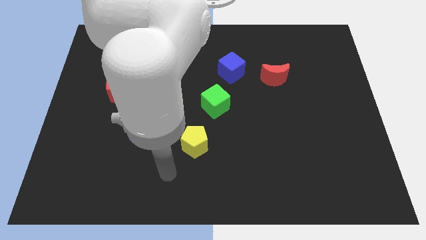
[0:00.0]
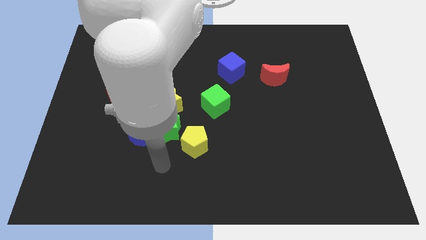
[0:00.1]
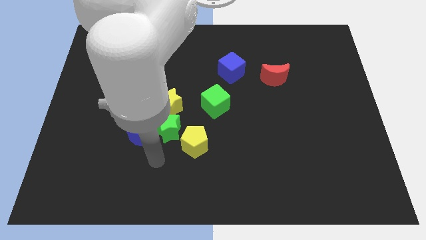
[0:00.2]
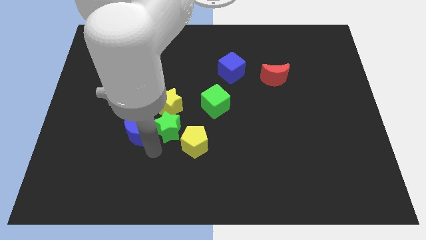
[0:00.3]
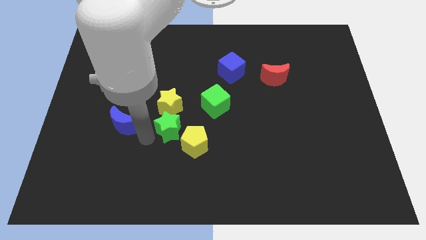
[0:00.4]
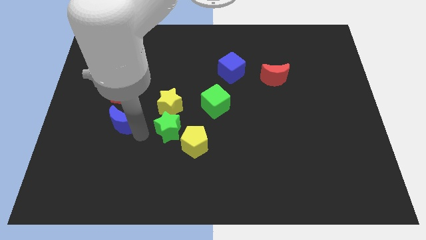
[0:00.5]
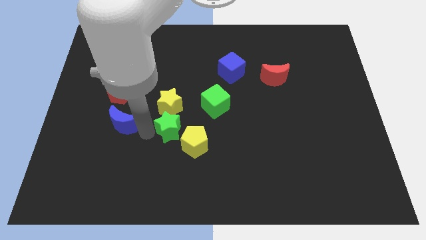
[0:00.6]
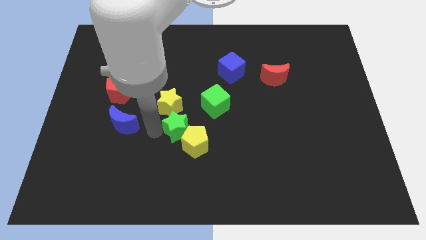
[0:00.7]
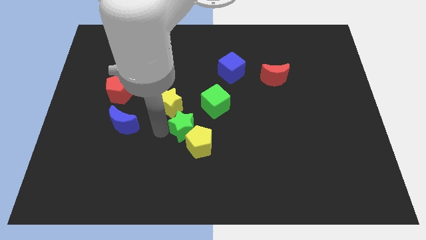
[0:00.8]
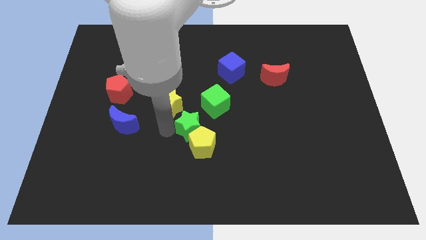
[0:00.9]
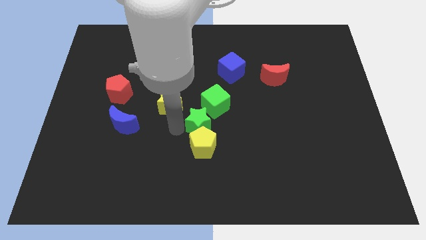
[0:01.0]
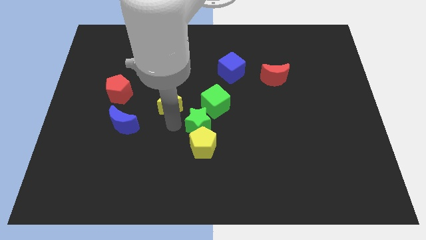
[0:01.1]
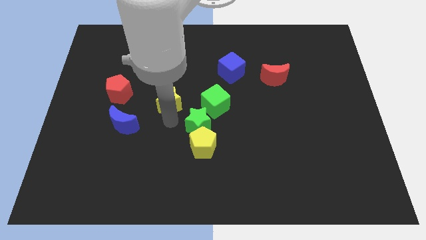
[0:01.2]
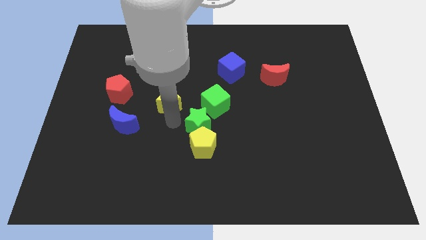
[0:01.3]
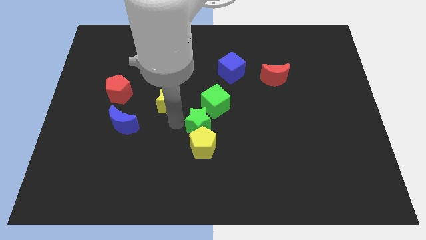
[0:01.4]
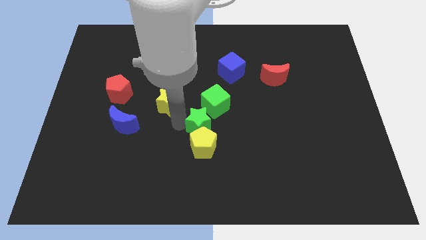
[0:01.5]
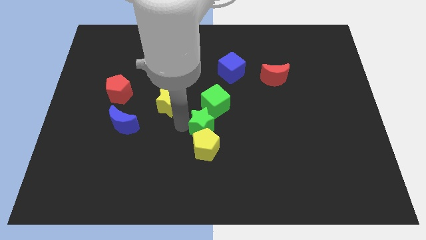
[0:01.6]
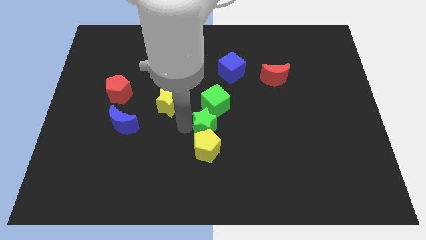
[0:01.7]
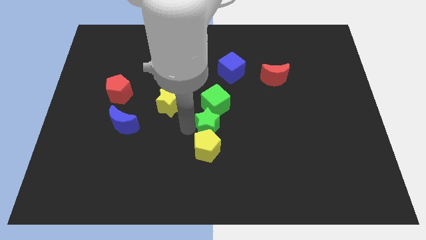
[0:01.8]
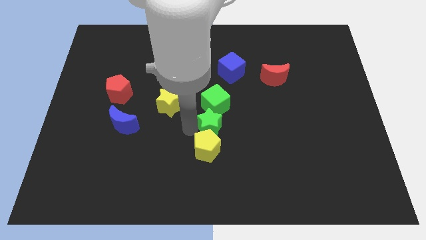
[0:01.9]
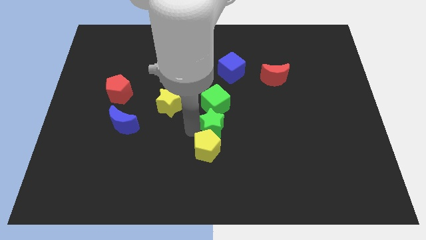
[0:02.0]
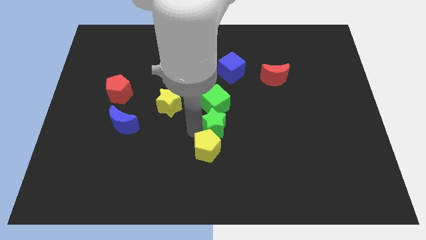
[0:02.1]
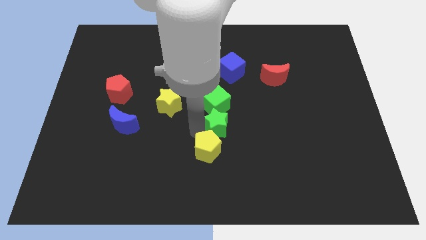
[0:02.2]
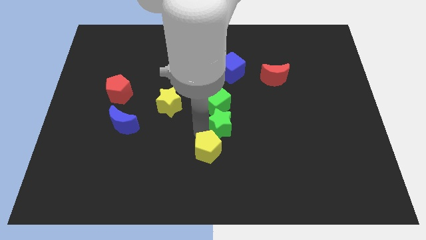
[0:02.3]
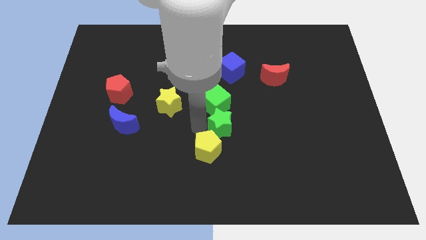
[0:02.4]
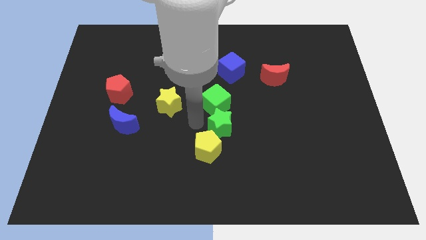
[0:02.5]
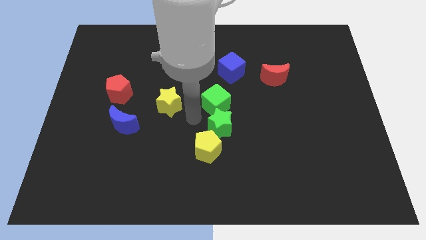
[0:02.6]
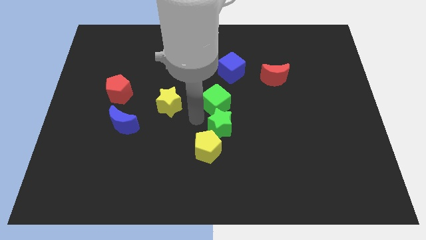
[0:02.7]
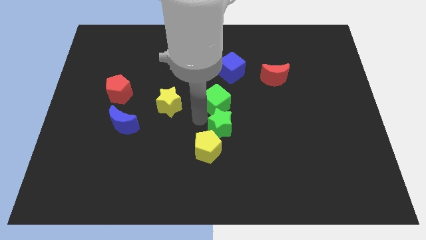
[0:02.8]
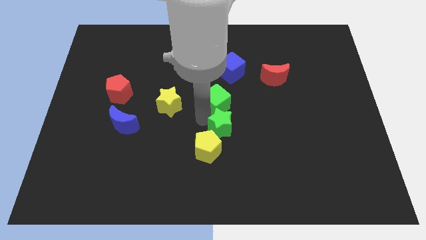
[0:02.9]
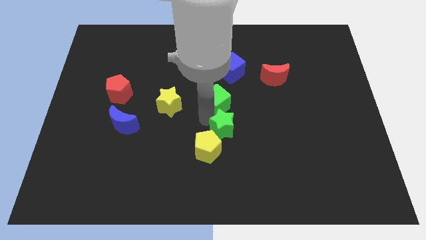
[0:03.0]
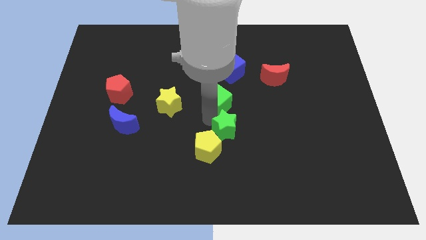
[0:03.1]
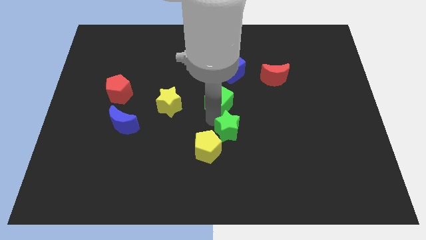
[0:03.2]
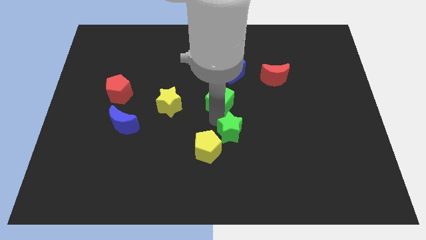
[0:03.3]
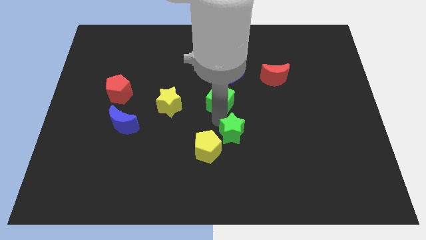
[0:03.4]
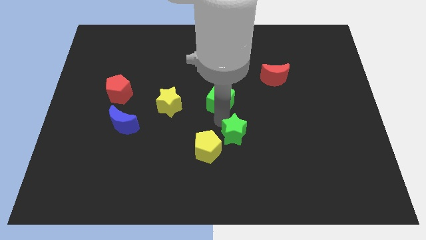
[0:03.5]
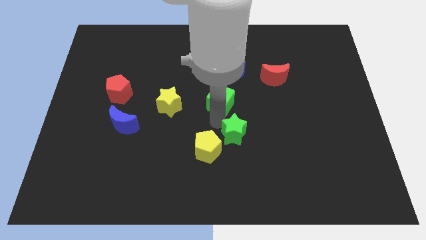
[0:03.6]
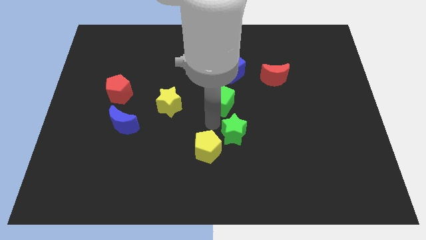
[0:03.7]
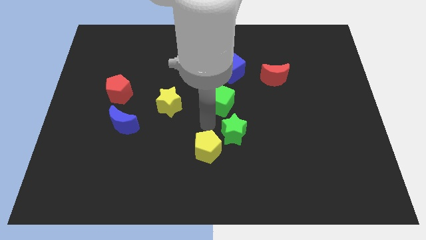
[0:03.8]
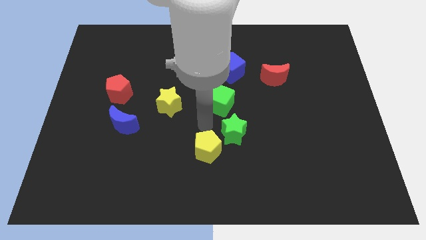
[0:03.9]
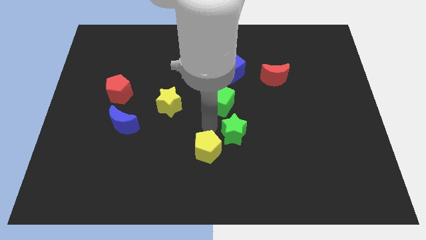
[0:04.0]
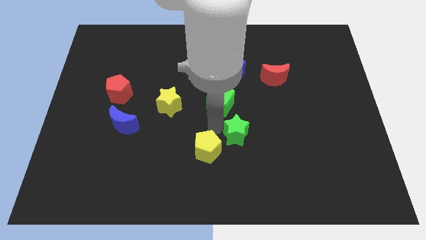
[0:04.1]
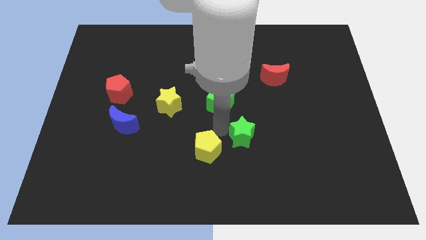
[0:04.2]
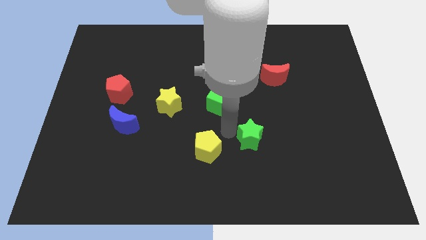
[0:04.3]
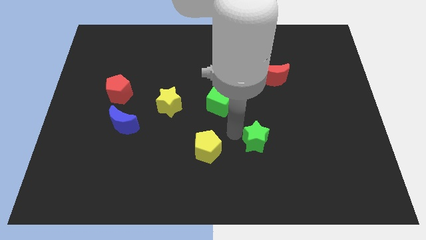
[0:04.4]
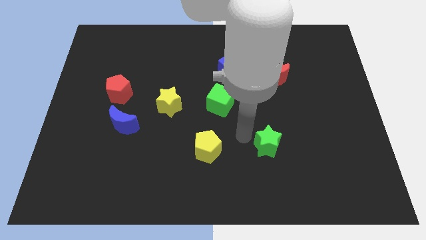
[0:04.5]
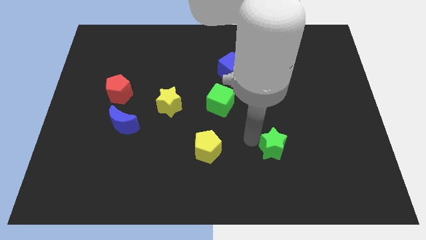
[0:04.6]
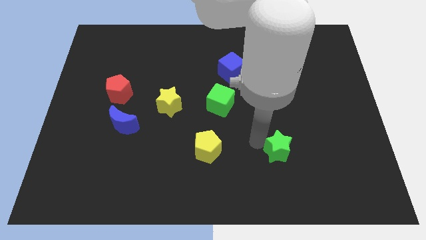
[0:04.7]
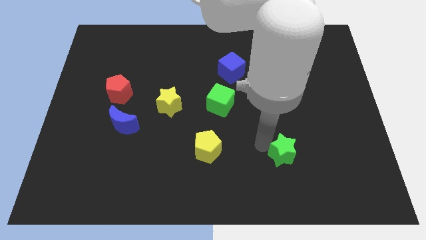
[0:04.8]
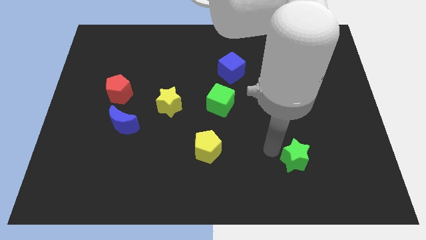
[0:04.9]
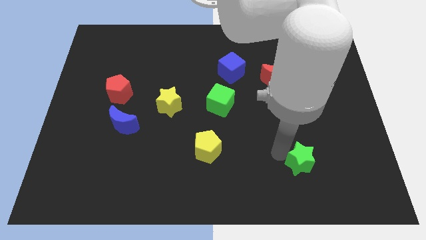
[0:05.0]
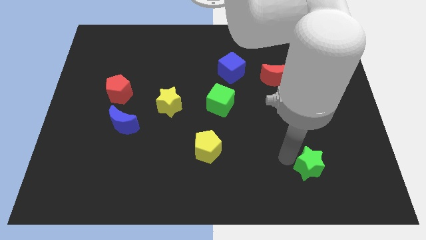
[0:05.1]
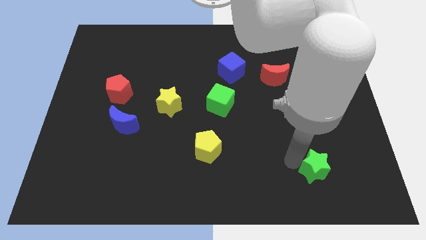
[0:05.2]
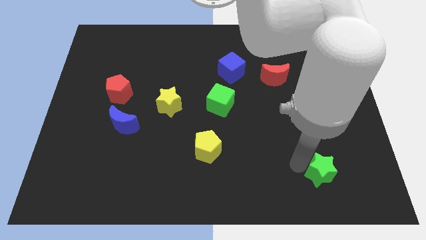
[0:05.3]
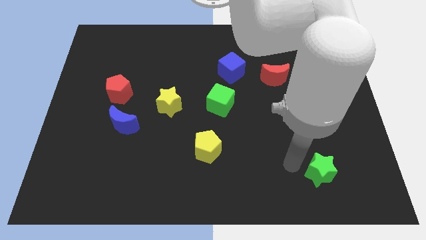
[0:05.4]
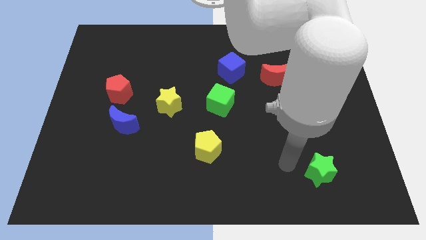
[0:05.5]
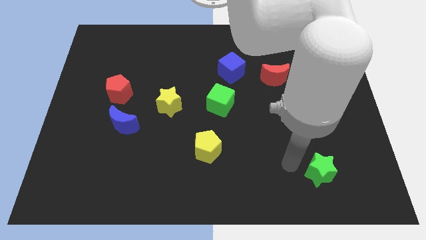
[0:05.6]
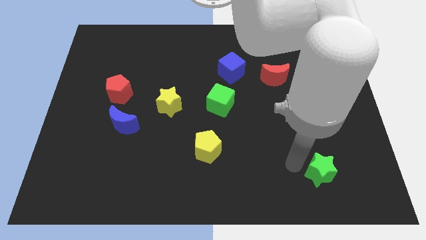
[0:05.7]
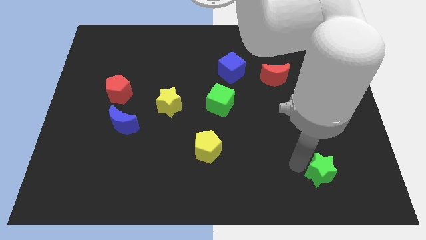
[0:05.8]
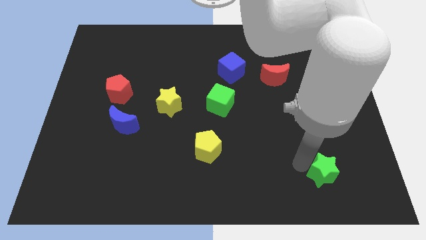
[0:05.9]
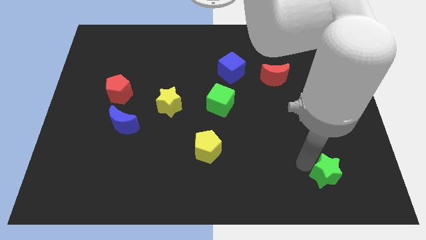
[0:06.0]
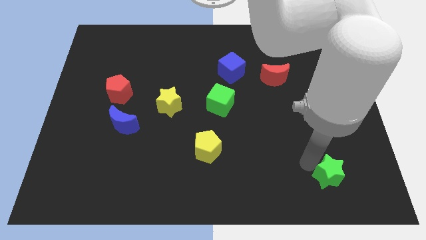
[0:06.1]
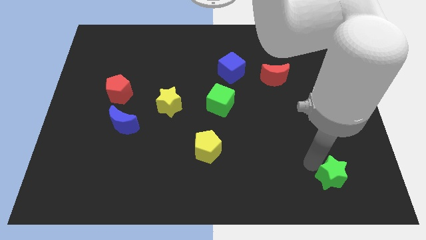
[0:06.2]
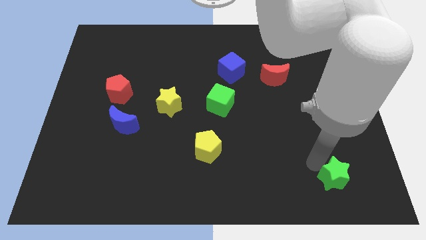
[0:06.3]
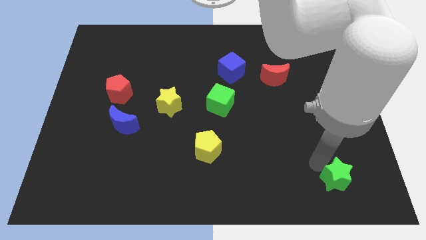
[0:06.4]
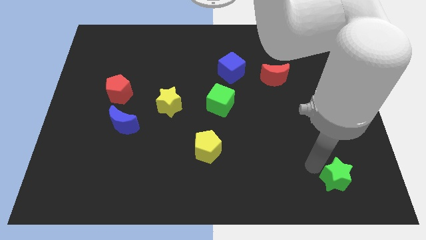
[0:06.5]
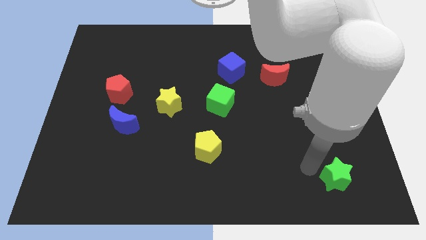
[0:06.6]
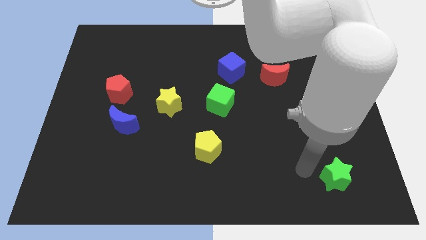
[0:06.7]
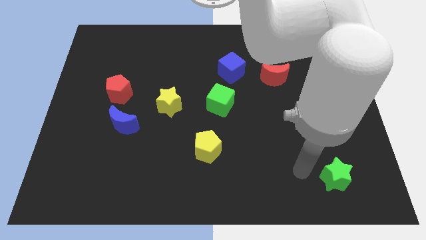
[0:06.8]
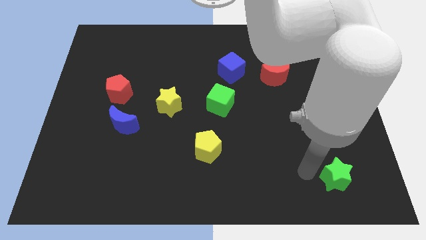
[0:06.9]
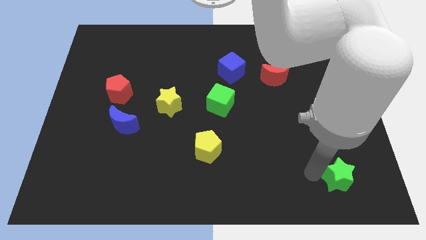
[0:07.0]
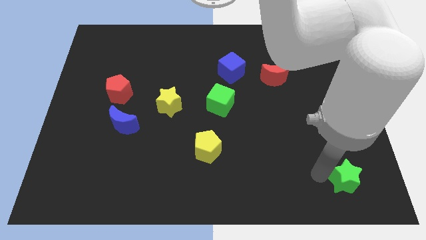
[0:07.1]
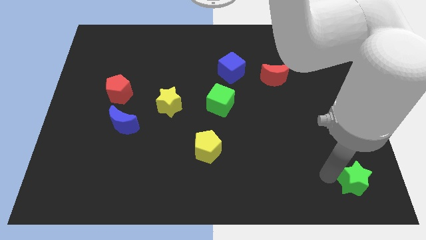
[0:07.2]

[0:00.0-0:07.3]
slide the green star to the bottom right

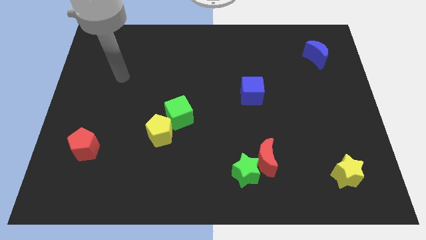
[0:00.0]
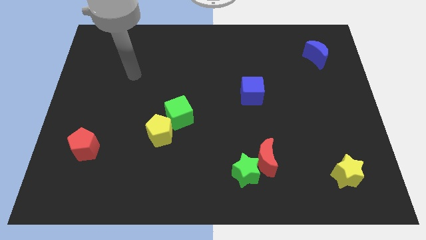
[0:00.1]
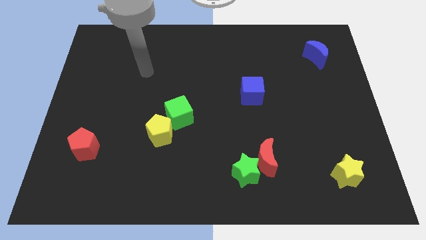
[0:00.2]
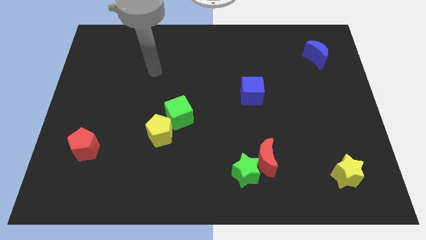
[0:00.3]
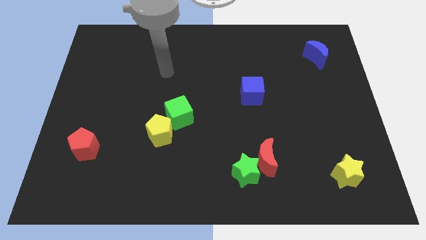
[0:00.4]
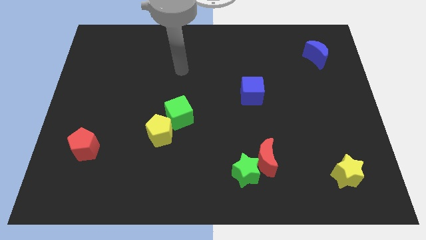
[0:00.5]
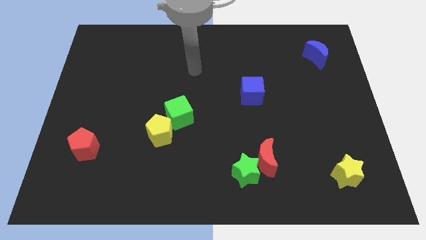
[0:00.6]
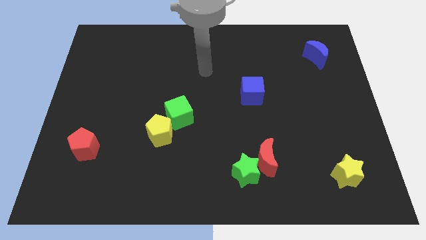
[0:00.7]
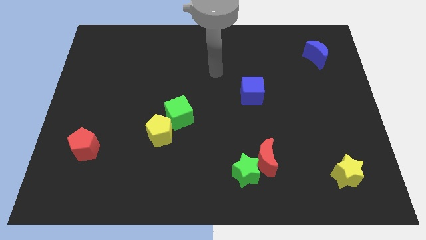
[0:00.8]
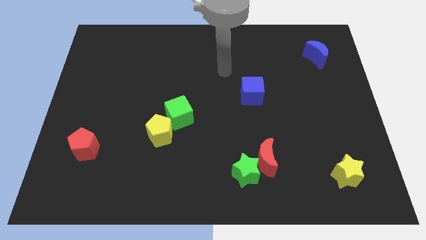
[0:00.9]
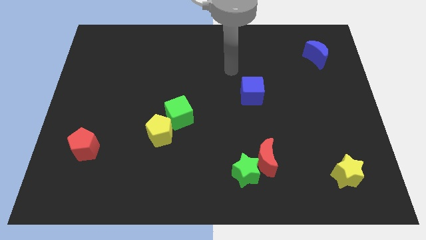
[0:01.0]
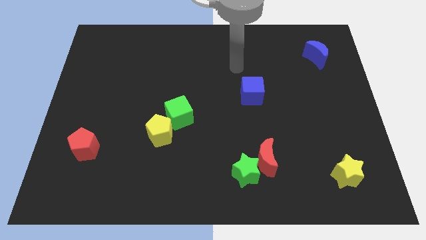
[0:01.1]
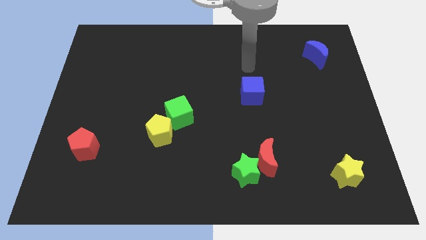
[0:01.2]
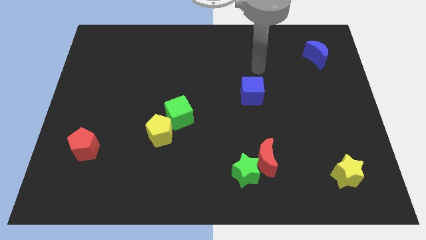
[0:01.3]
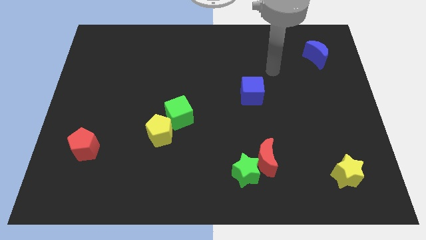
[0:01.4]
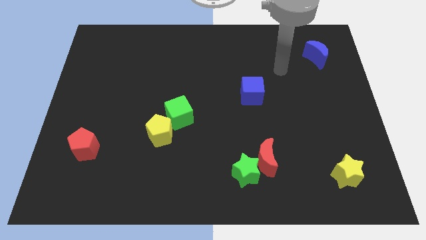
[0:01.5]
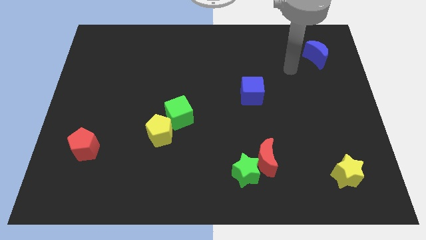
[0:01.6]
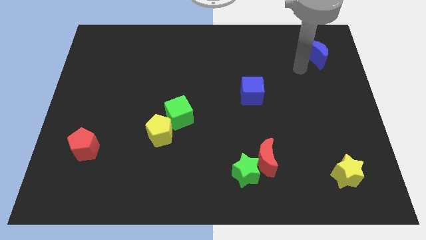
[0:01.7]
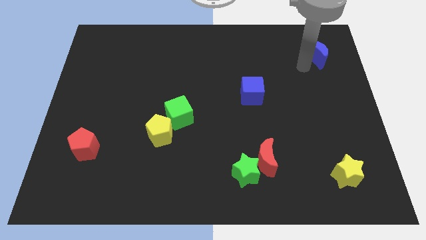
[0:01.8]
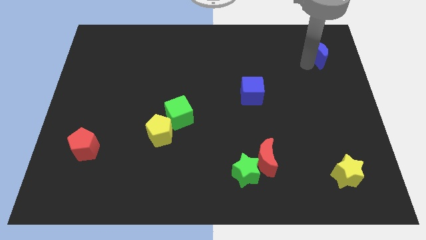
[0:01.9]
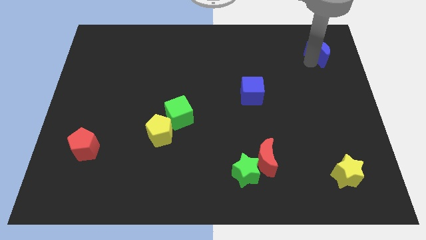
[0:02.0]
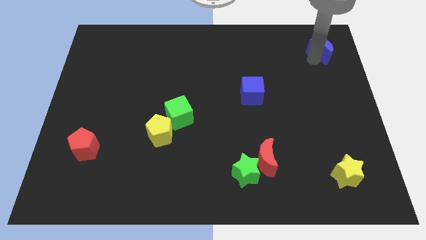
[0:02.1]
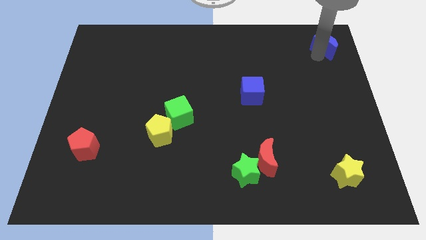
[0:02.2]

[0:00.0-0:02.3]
put the blue moon to the top right corner
